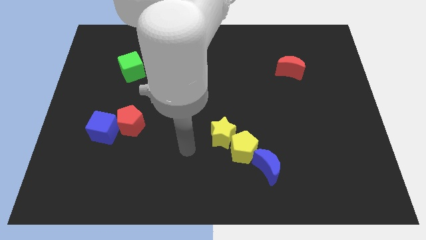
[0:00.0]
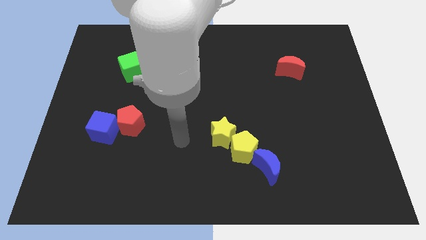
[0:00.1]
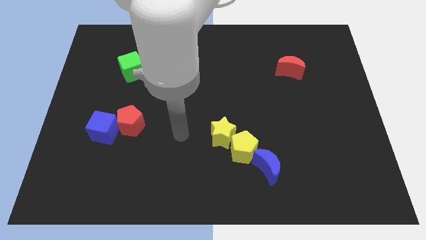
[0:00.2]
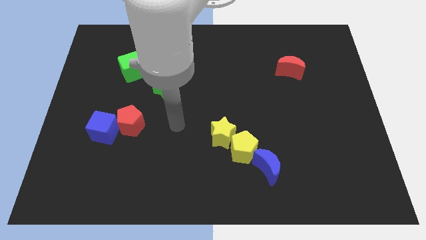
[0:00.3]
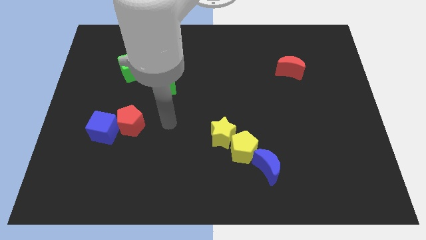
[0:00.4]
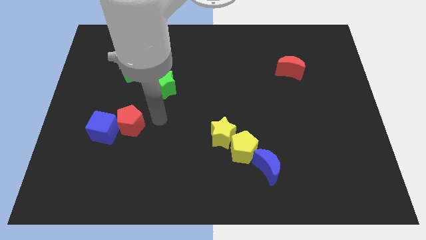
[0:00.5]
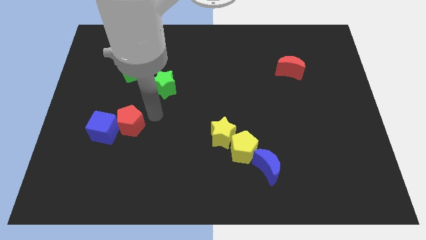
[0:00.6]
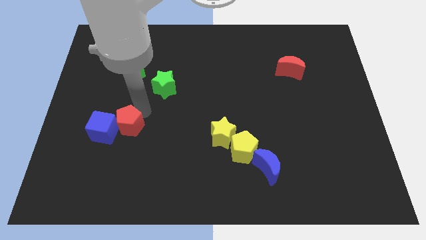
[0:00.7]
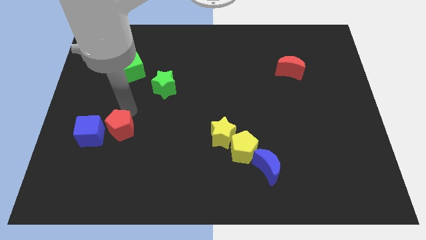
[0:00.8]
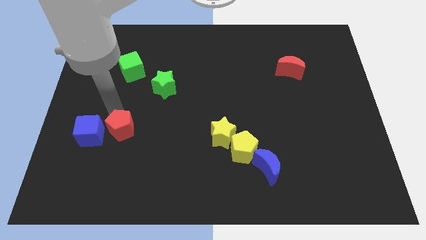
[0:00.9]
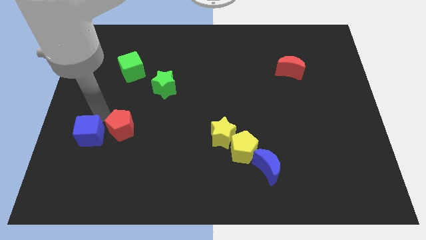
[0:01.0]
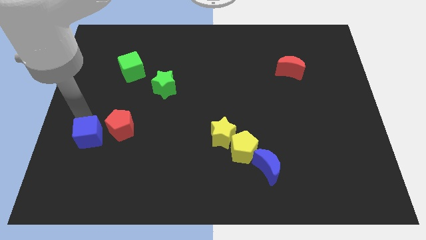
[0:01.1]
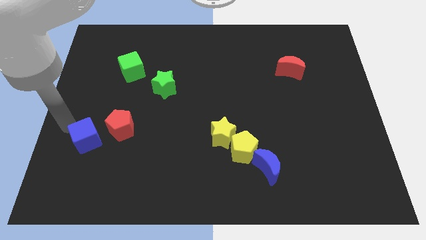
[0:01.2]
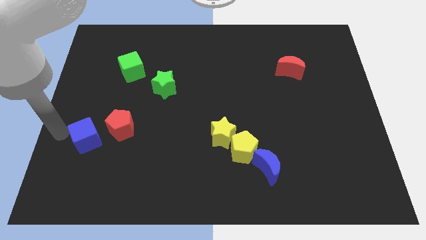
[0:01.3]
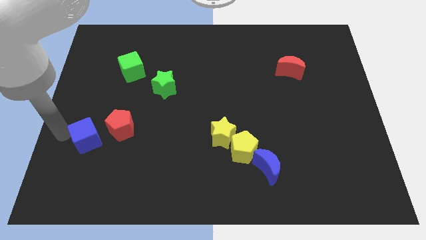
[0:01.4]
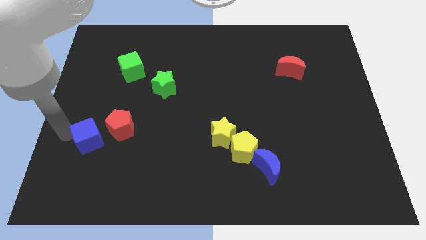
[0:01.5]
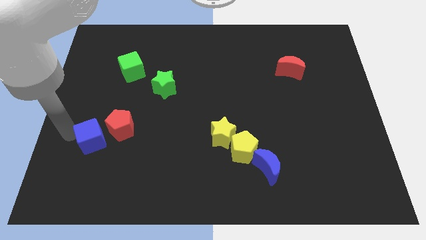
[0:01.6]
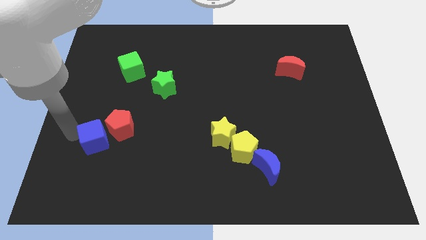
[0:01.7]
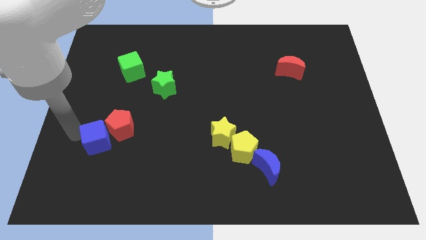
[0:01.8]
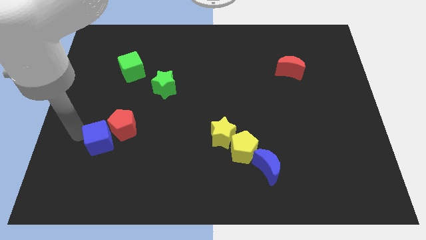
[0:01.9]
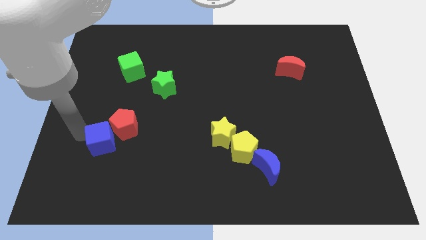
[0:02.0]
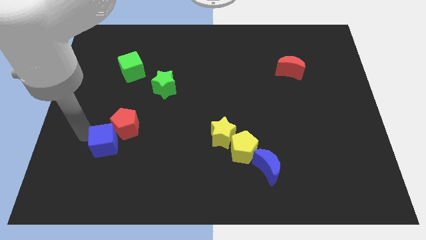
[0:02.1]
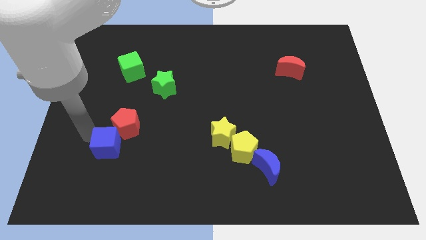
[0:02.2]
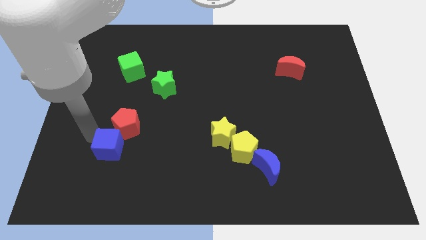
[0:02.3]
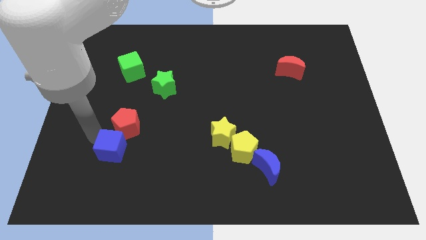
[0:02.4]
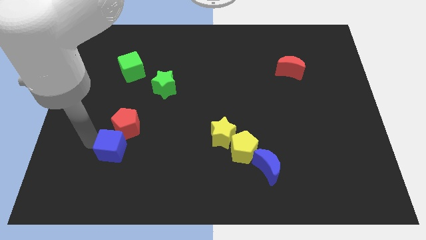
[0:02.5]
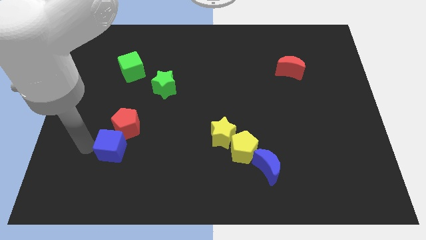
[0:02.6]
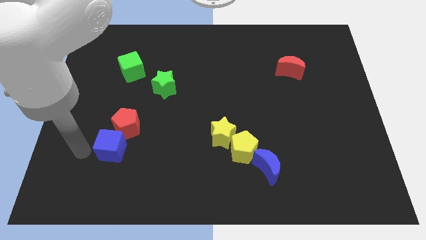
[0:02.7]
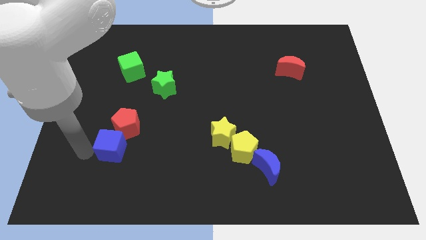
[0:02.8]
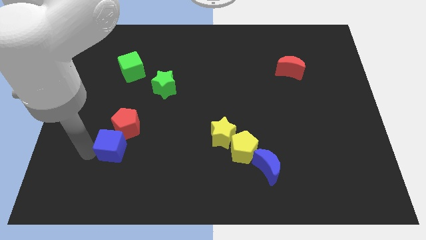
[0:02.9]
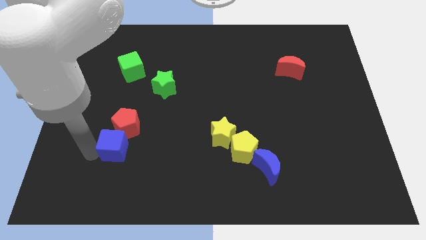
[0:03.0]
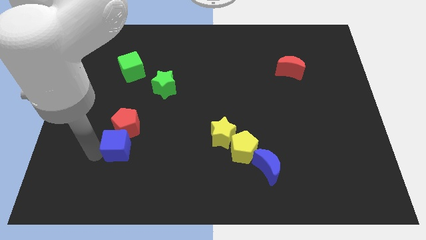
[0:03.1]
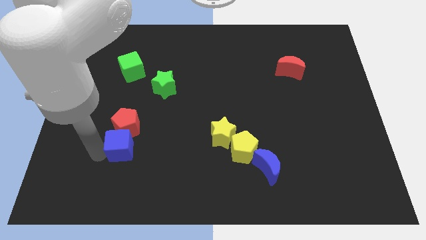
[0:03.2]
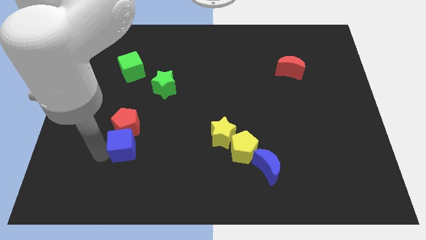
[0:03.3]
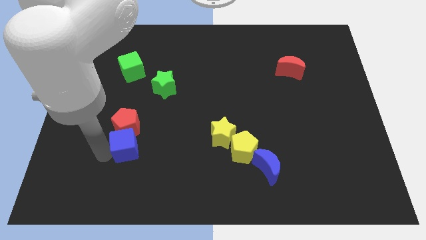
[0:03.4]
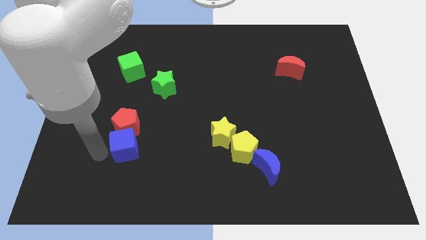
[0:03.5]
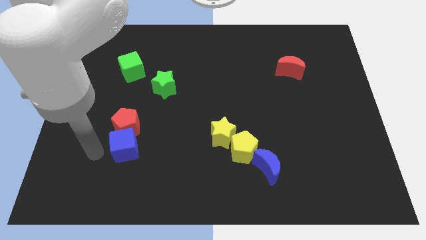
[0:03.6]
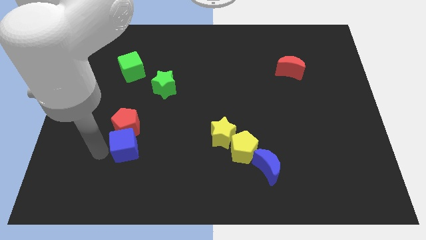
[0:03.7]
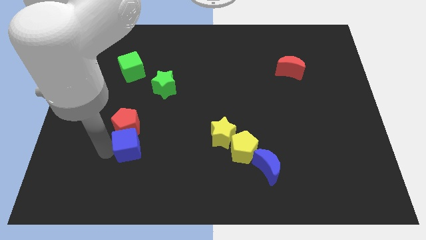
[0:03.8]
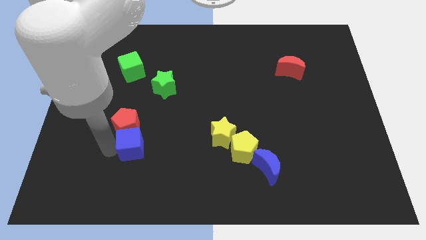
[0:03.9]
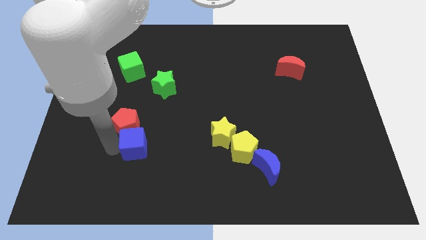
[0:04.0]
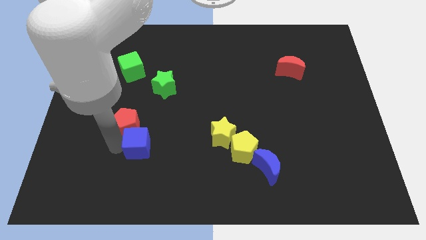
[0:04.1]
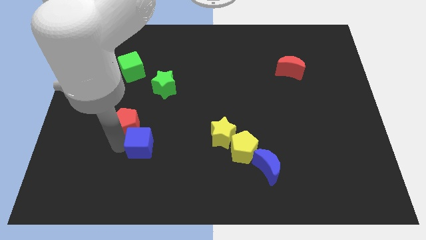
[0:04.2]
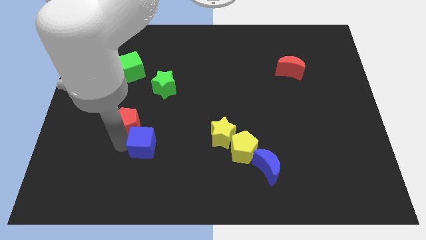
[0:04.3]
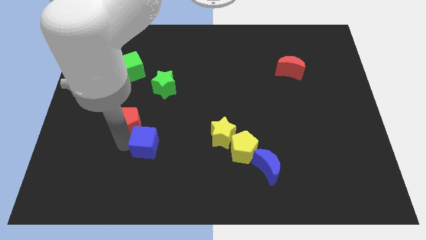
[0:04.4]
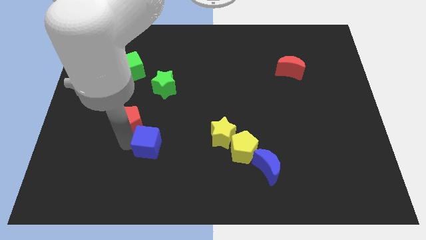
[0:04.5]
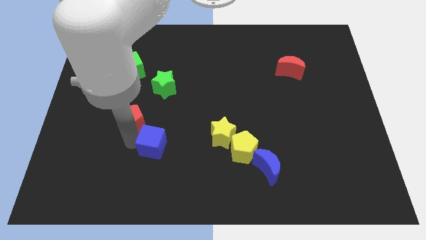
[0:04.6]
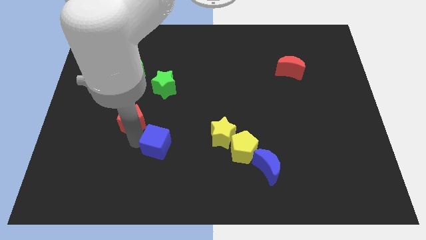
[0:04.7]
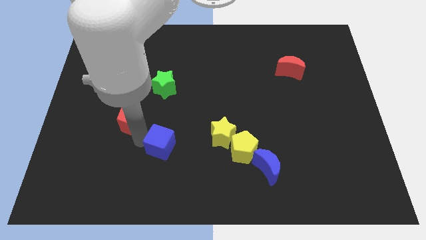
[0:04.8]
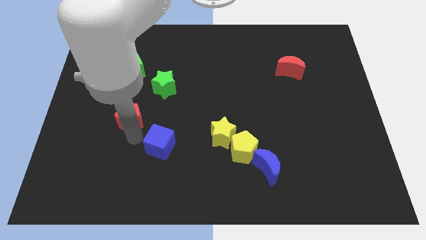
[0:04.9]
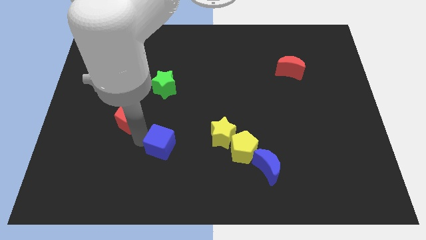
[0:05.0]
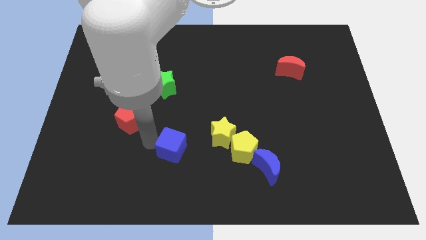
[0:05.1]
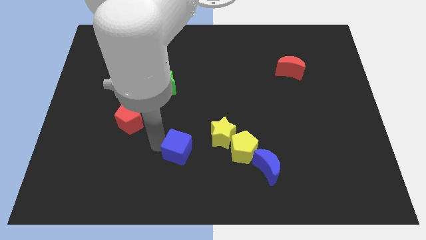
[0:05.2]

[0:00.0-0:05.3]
slide the blue cube diagonally down and to the left of the yellow star

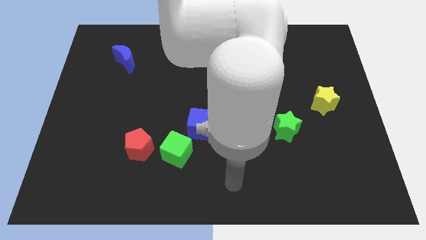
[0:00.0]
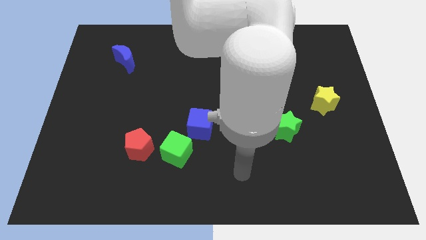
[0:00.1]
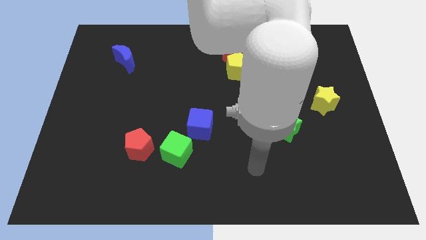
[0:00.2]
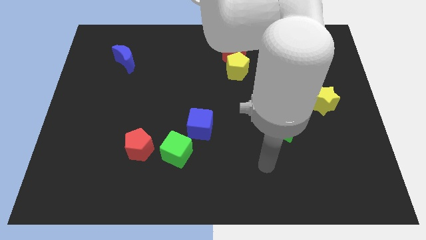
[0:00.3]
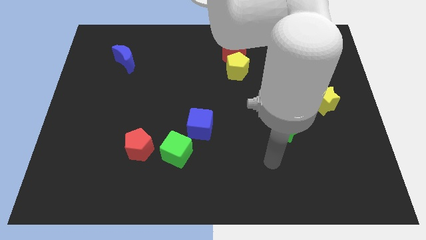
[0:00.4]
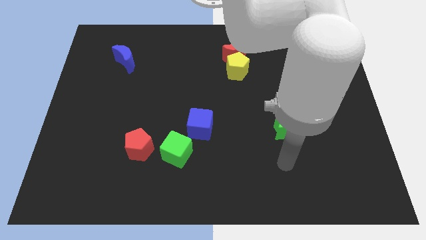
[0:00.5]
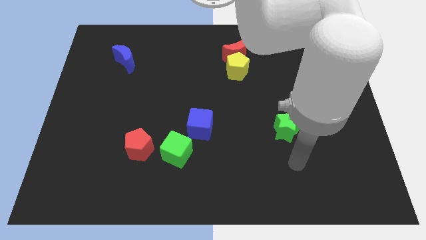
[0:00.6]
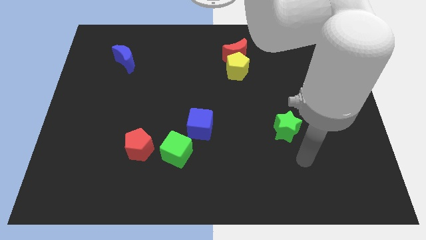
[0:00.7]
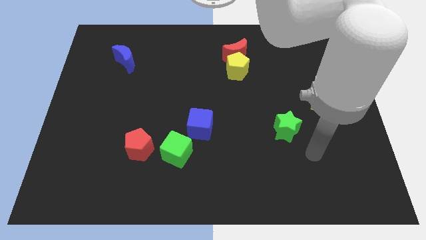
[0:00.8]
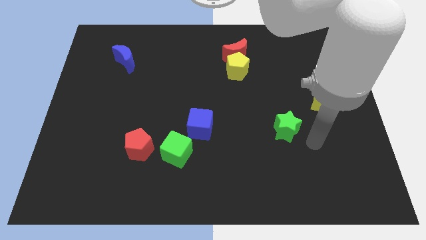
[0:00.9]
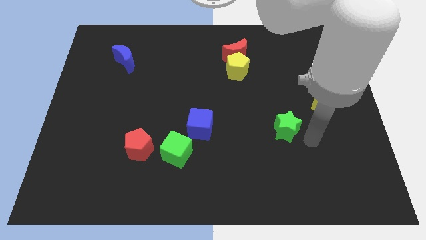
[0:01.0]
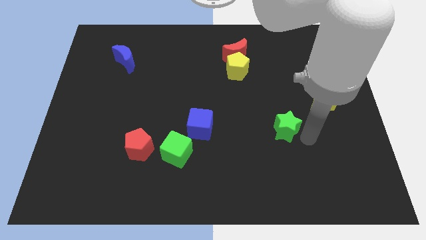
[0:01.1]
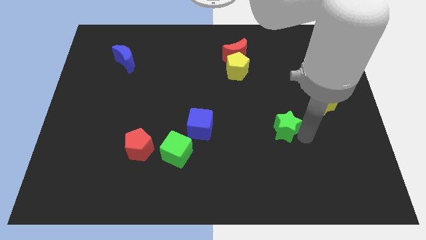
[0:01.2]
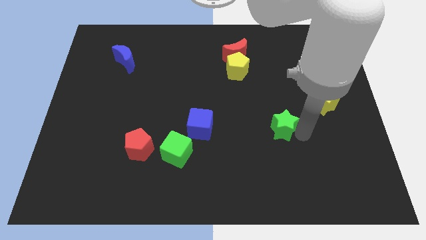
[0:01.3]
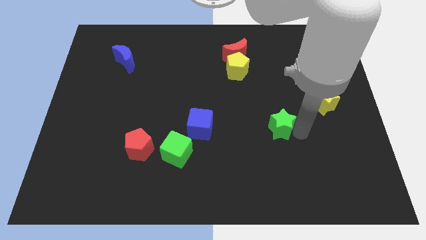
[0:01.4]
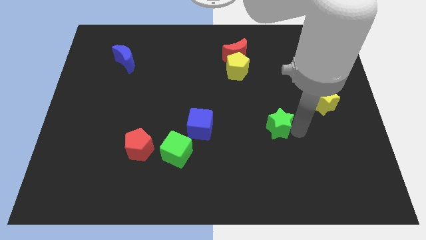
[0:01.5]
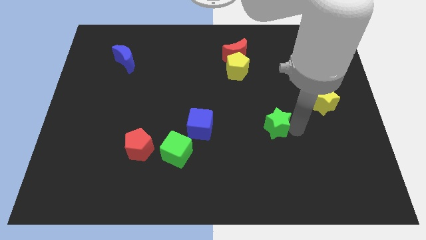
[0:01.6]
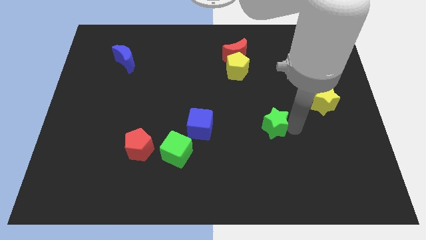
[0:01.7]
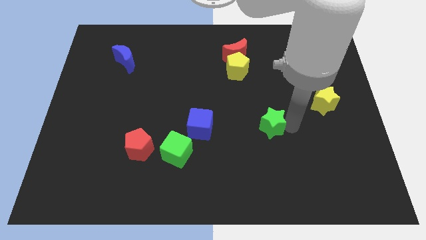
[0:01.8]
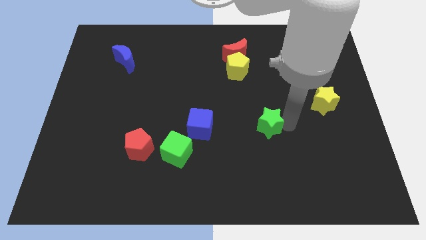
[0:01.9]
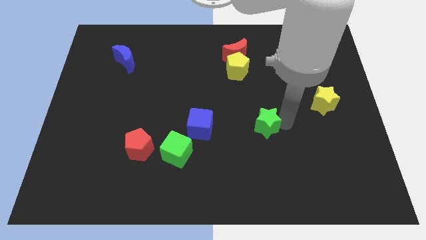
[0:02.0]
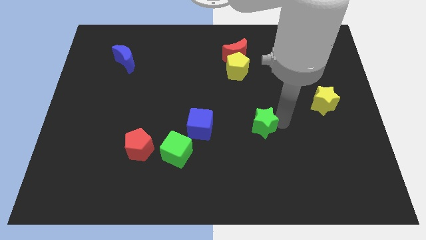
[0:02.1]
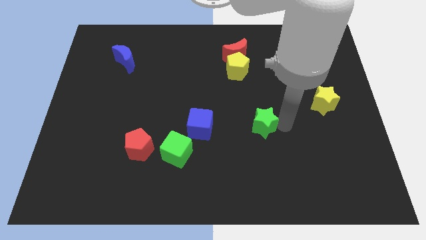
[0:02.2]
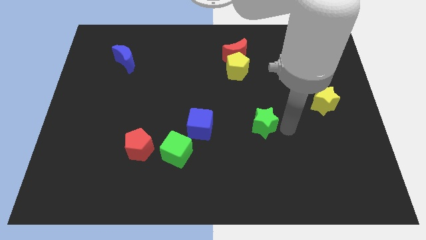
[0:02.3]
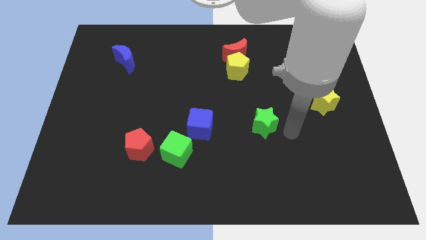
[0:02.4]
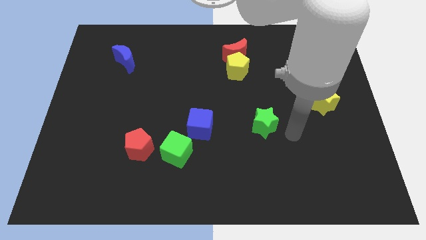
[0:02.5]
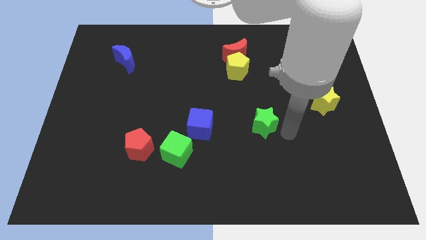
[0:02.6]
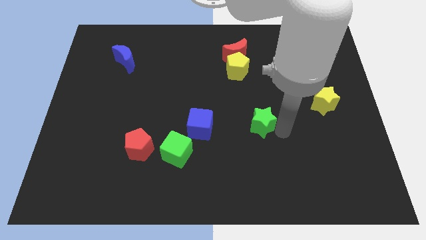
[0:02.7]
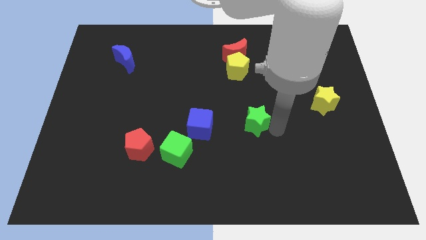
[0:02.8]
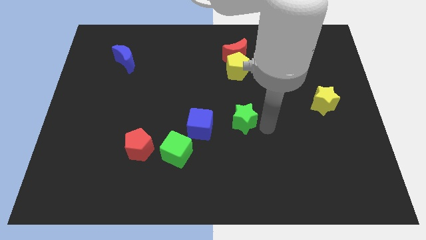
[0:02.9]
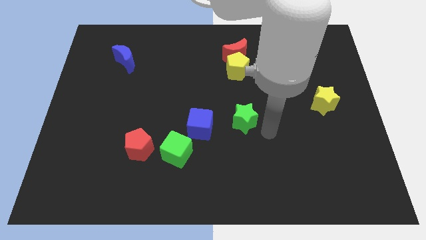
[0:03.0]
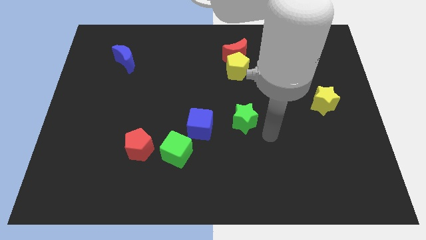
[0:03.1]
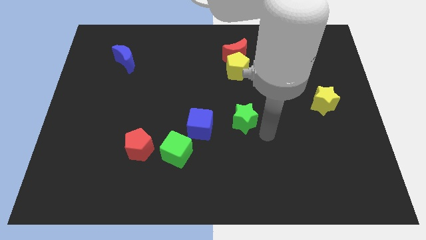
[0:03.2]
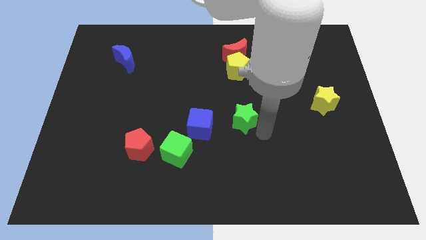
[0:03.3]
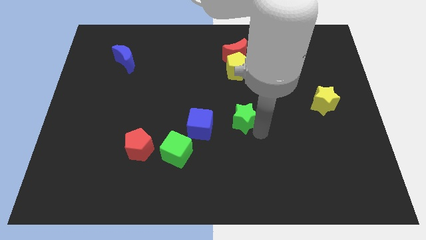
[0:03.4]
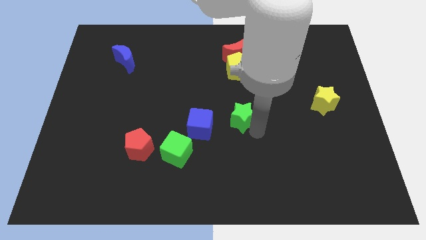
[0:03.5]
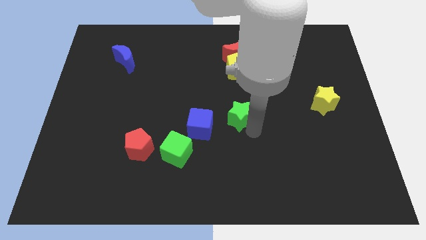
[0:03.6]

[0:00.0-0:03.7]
push the green star to the top right of the blue cube
